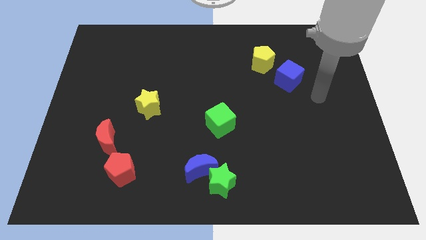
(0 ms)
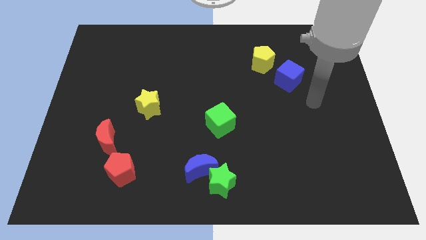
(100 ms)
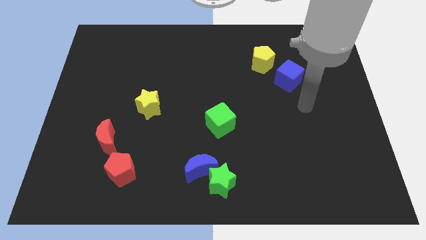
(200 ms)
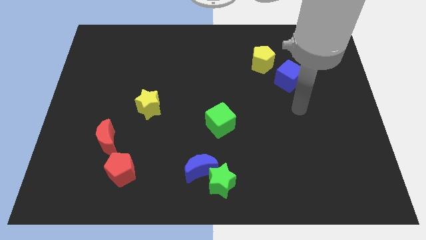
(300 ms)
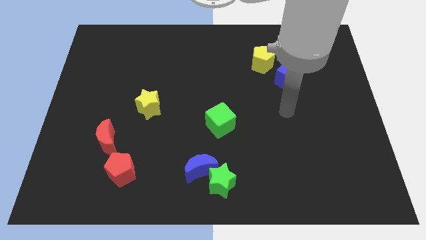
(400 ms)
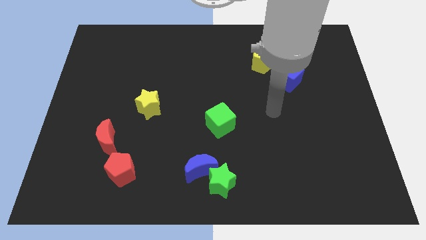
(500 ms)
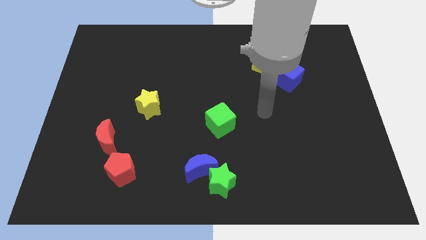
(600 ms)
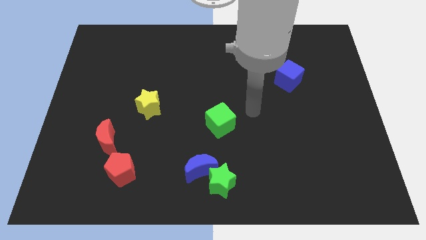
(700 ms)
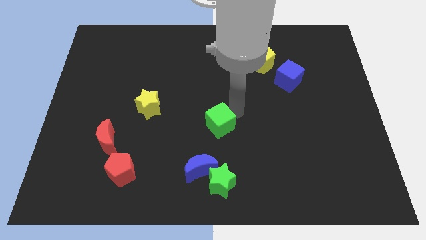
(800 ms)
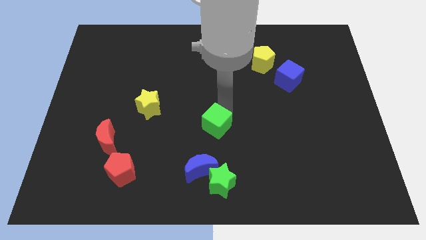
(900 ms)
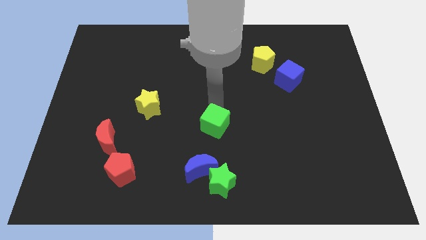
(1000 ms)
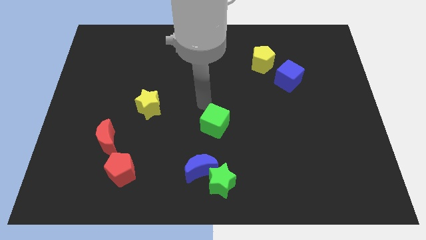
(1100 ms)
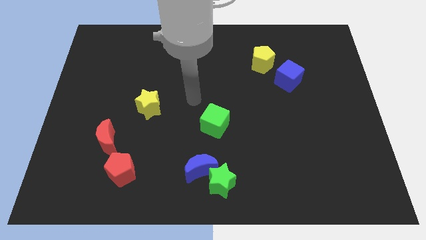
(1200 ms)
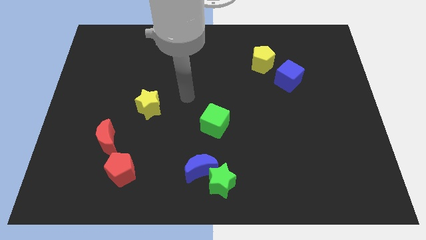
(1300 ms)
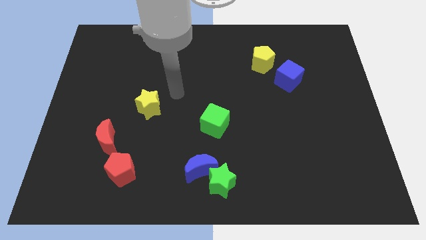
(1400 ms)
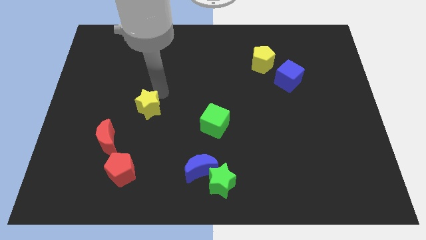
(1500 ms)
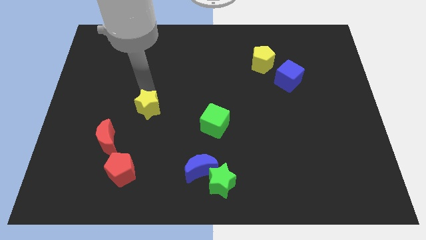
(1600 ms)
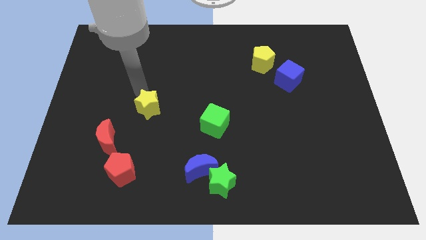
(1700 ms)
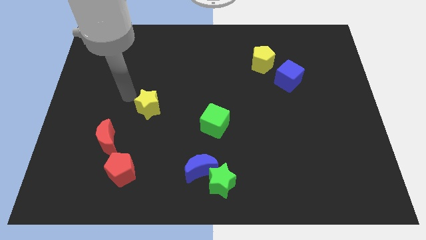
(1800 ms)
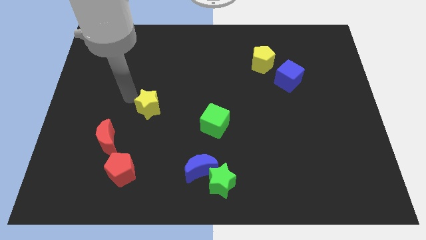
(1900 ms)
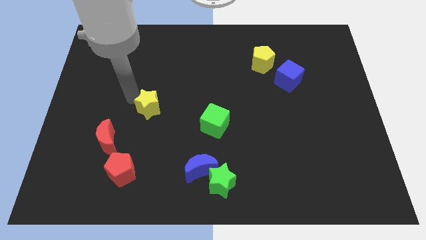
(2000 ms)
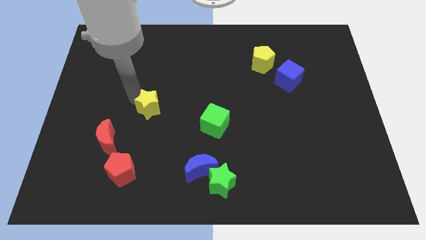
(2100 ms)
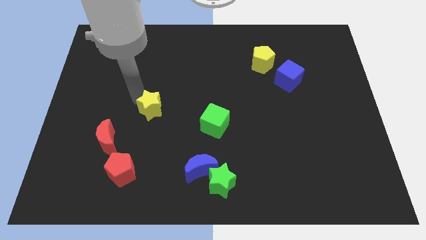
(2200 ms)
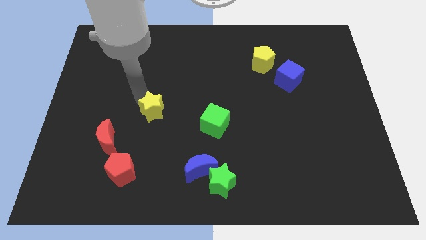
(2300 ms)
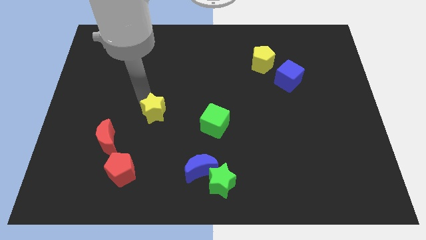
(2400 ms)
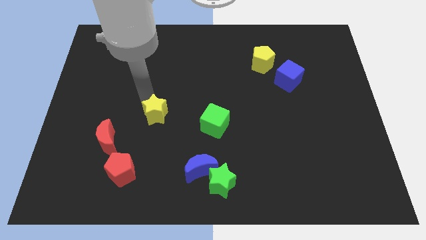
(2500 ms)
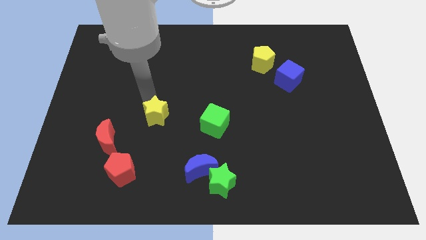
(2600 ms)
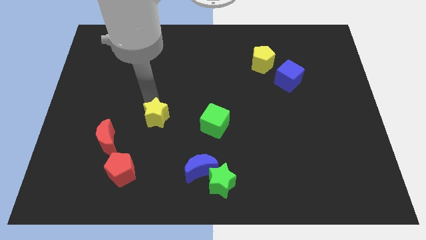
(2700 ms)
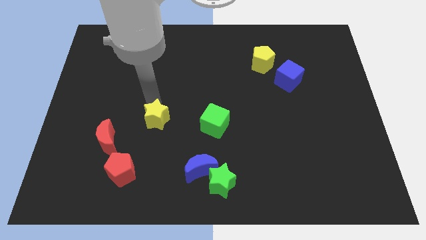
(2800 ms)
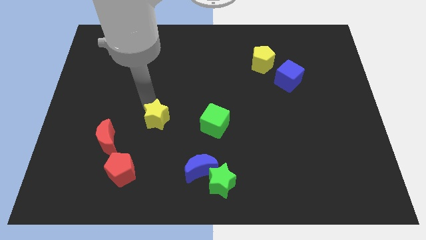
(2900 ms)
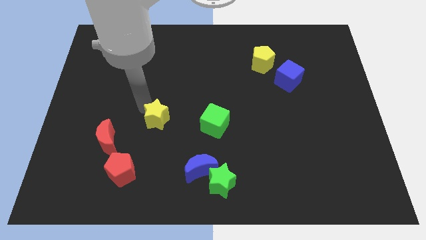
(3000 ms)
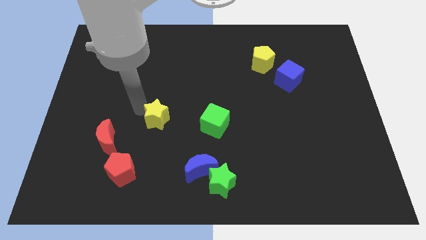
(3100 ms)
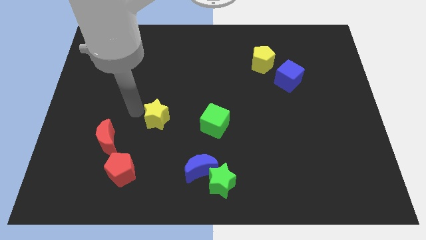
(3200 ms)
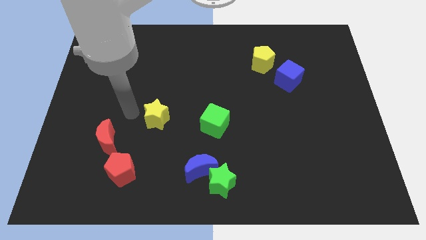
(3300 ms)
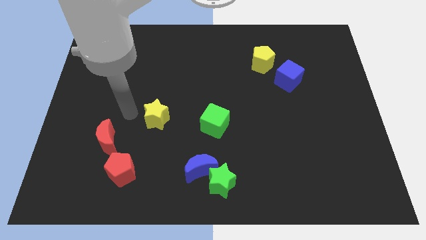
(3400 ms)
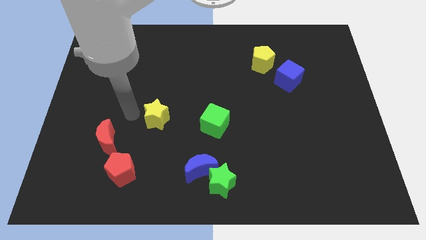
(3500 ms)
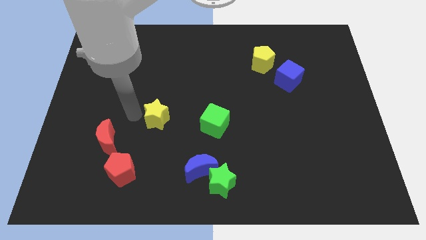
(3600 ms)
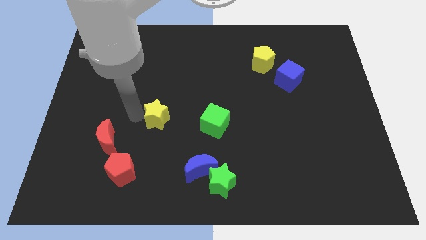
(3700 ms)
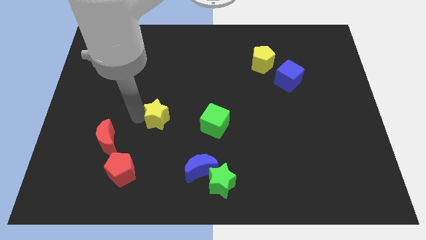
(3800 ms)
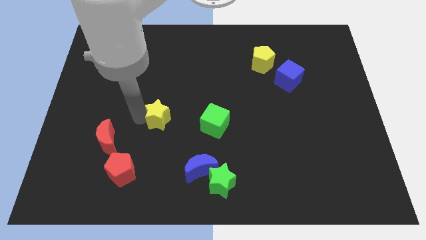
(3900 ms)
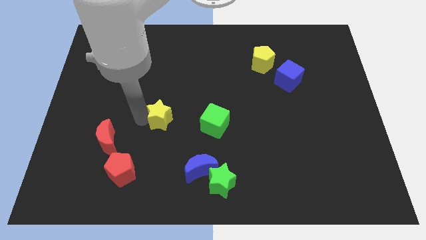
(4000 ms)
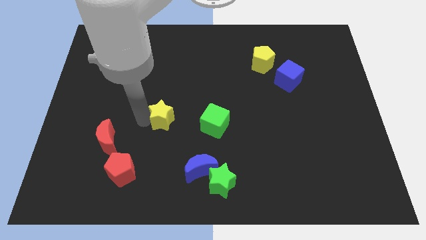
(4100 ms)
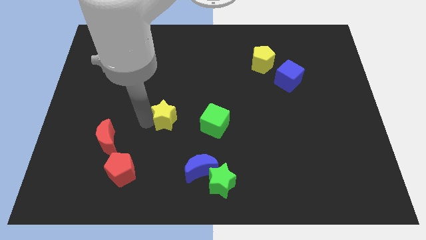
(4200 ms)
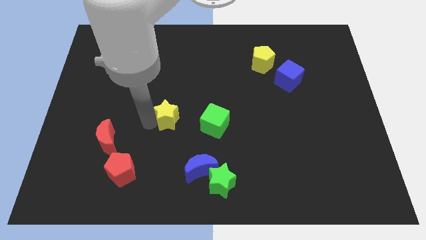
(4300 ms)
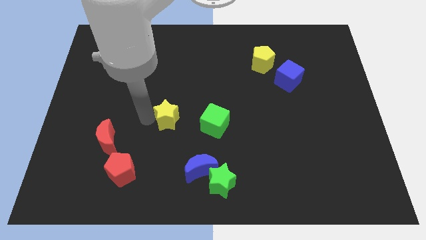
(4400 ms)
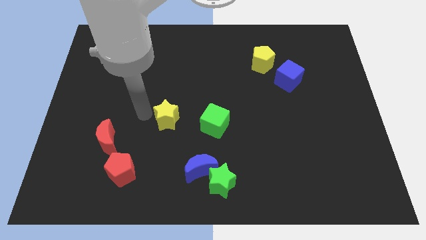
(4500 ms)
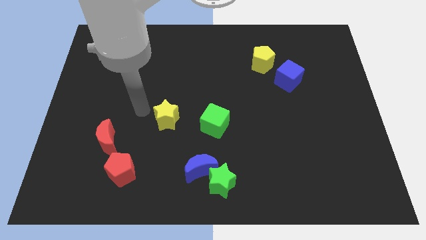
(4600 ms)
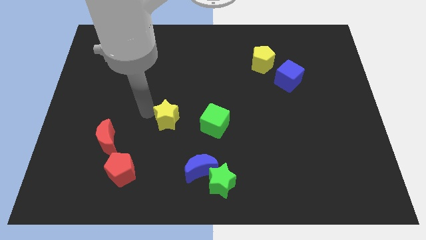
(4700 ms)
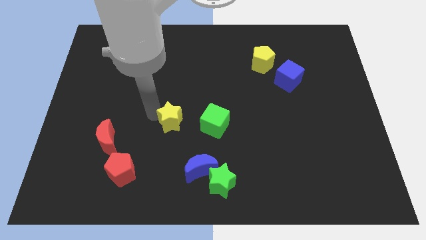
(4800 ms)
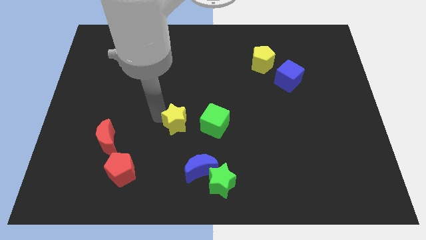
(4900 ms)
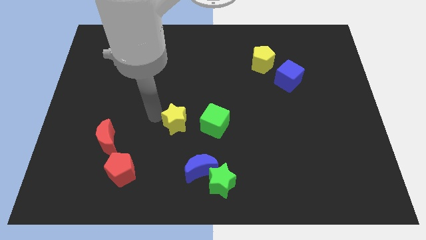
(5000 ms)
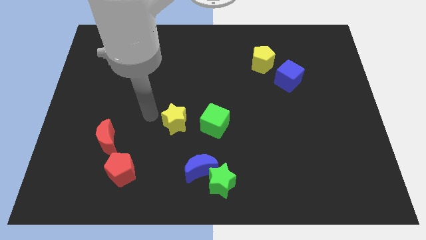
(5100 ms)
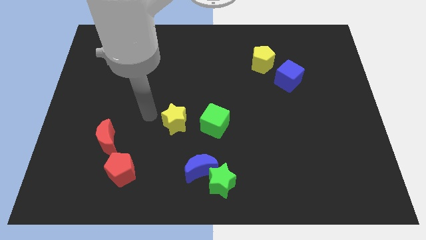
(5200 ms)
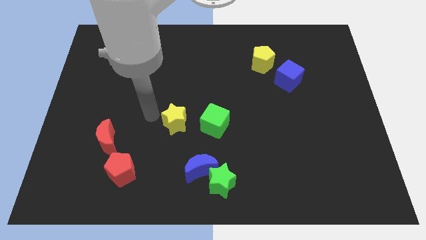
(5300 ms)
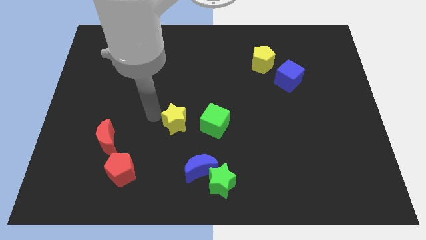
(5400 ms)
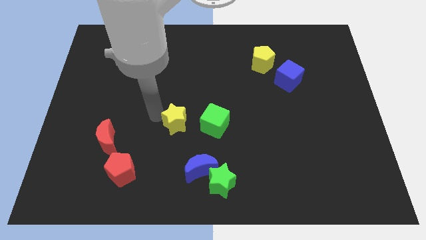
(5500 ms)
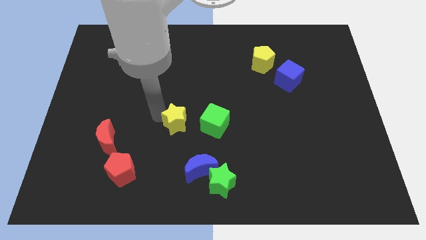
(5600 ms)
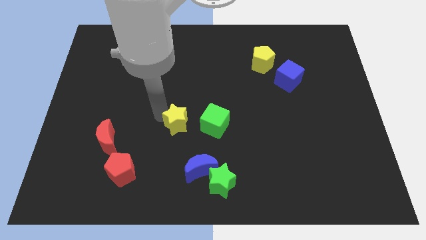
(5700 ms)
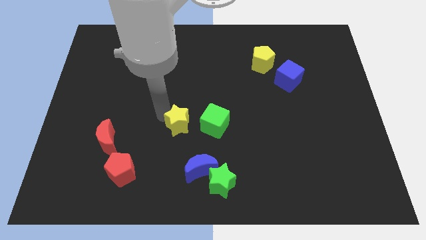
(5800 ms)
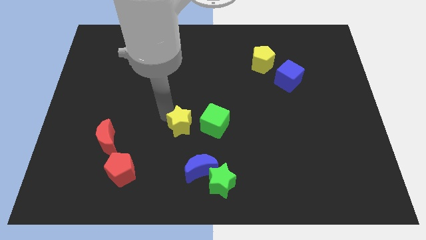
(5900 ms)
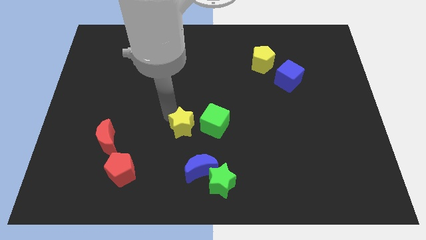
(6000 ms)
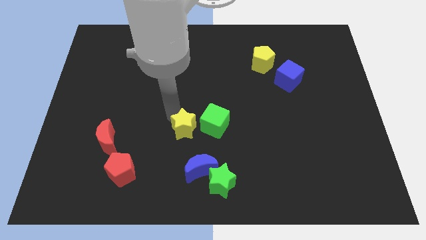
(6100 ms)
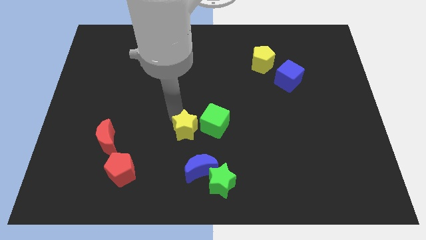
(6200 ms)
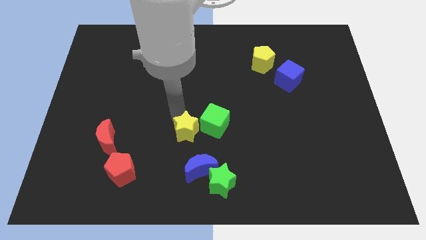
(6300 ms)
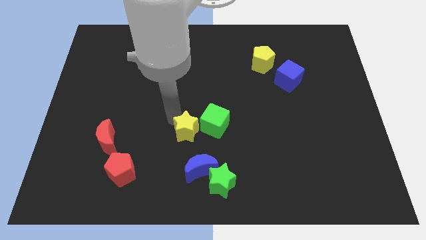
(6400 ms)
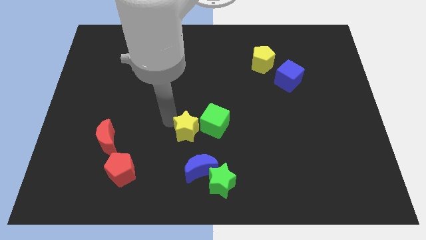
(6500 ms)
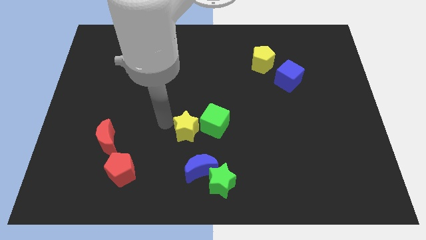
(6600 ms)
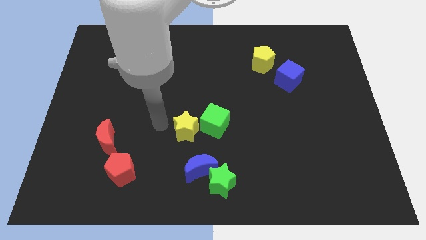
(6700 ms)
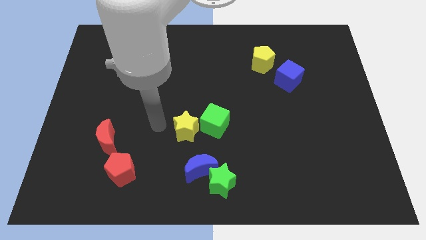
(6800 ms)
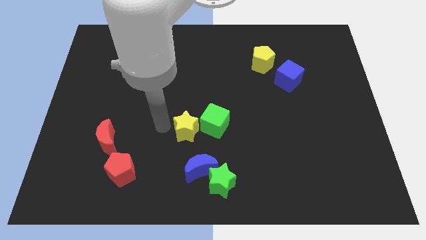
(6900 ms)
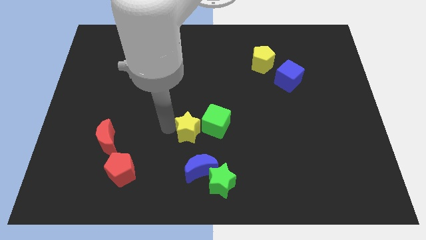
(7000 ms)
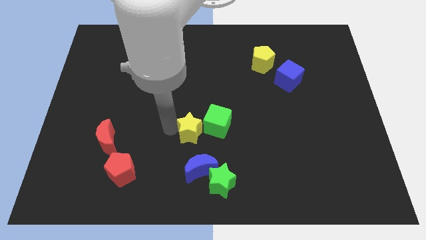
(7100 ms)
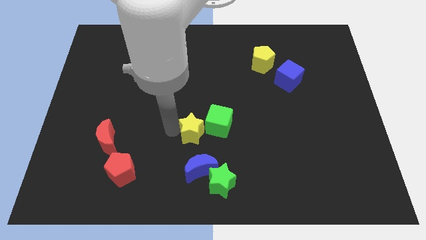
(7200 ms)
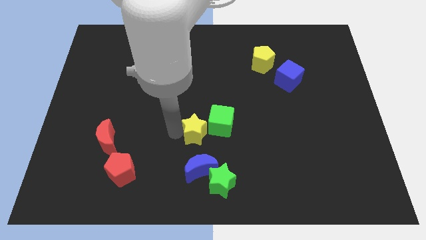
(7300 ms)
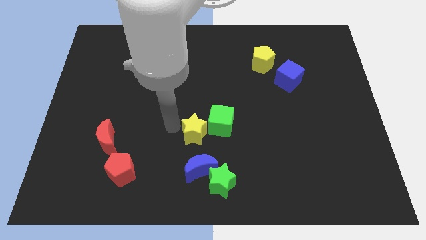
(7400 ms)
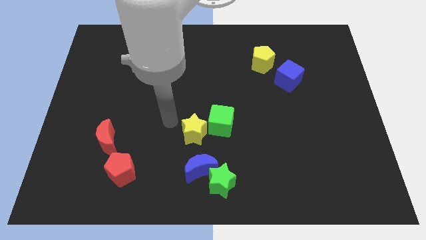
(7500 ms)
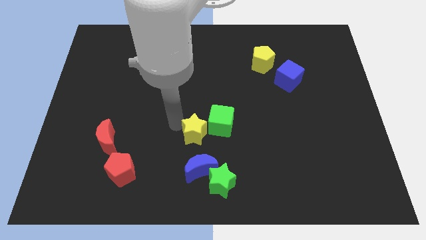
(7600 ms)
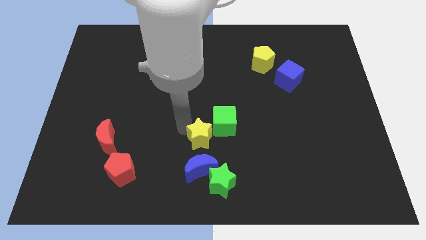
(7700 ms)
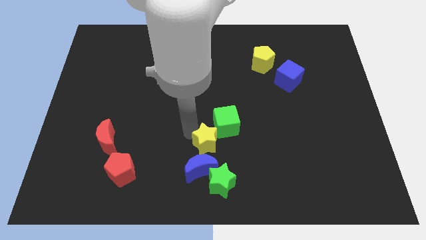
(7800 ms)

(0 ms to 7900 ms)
slide the yellow star diagonally up and to the right of the blue moon
